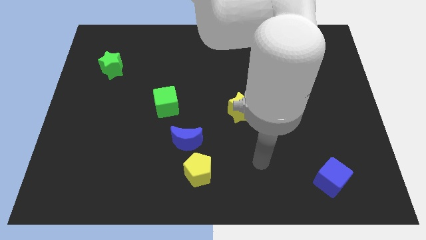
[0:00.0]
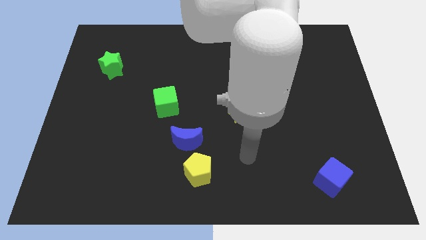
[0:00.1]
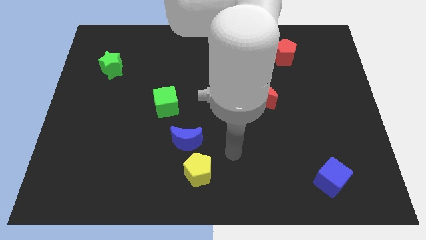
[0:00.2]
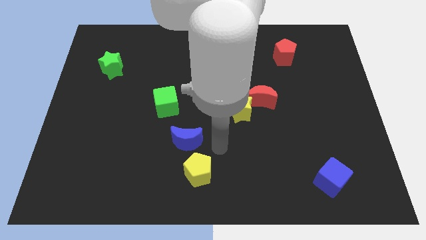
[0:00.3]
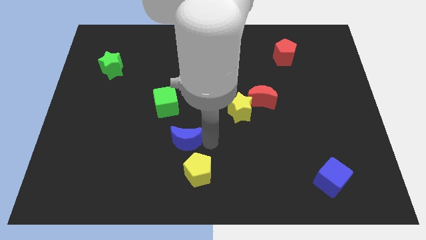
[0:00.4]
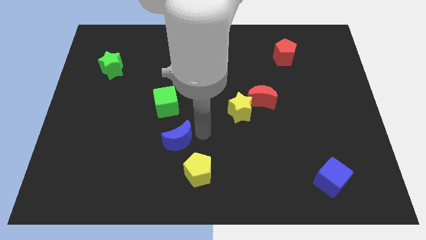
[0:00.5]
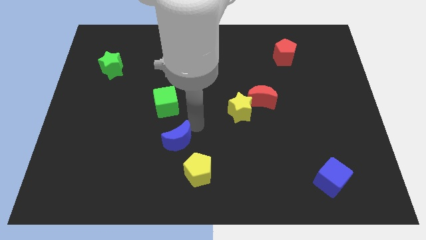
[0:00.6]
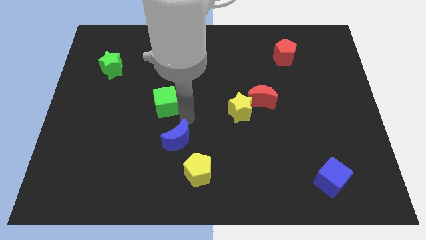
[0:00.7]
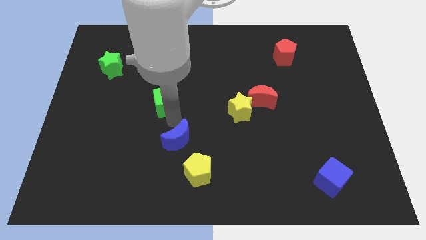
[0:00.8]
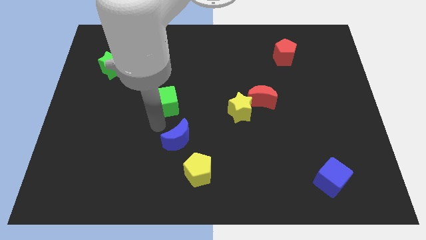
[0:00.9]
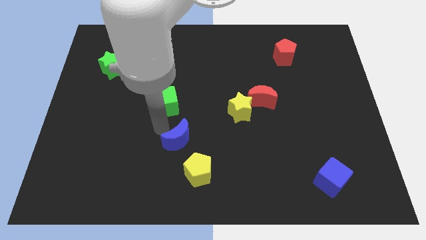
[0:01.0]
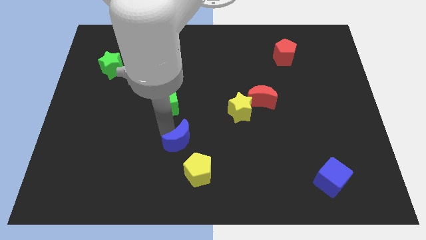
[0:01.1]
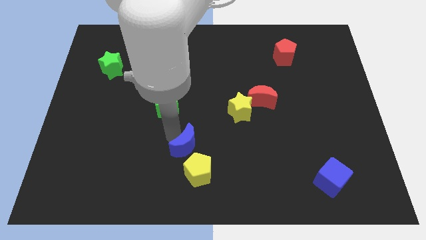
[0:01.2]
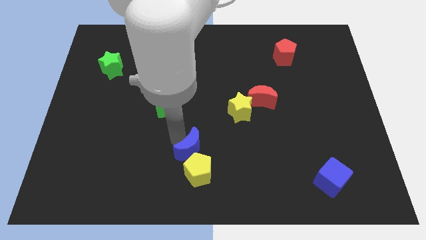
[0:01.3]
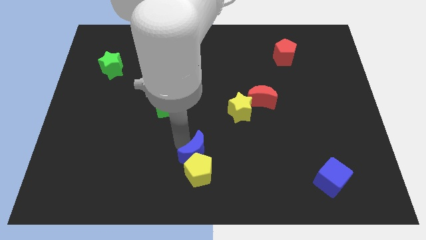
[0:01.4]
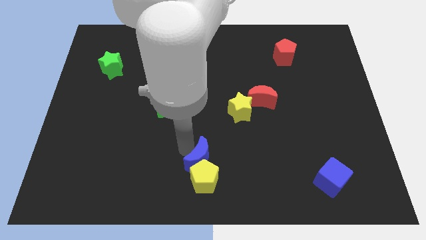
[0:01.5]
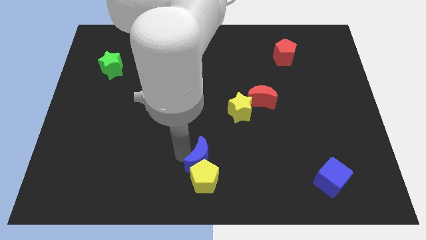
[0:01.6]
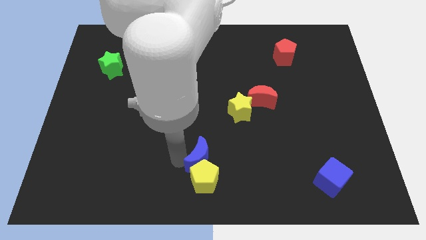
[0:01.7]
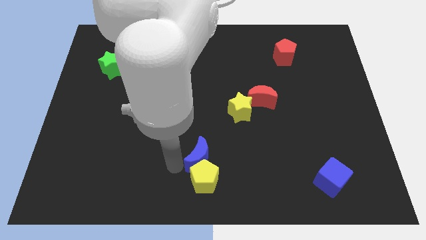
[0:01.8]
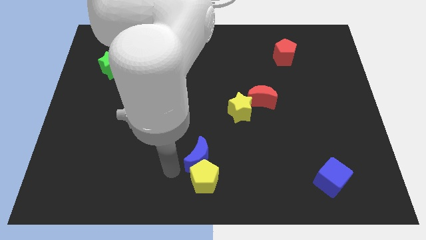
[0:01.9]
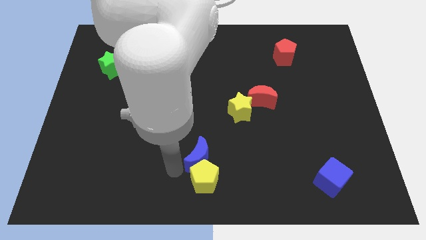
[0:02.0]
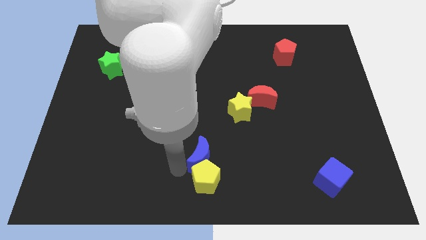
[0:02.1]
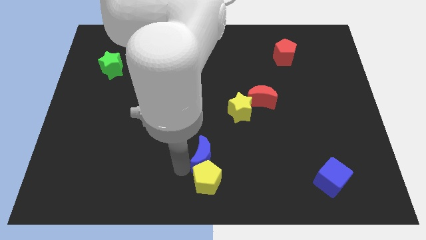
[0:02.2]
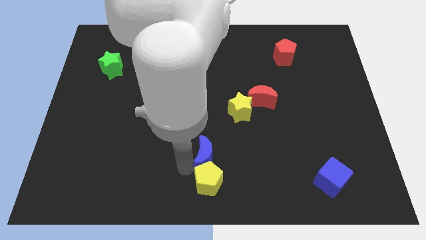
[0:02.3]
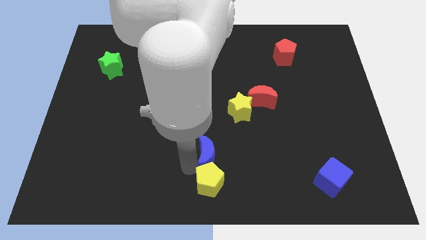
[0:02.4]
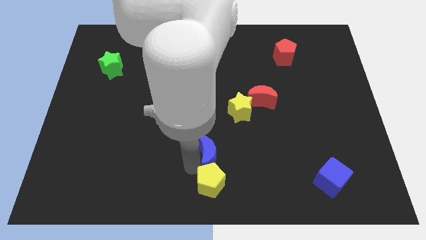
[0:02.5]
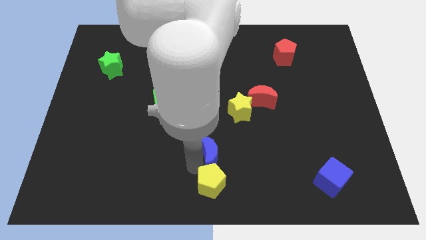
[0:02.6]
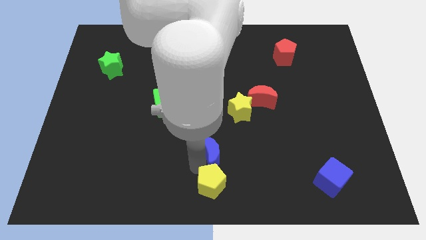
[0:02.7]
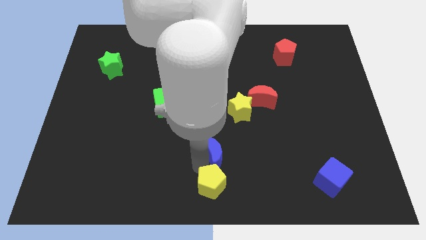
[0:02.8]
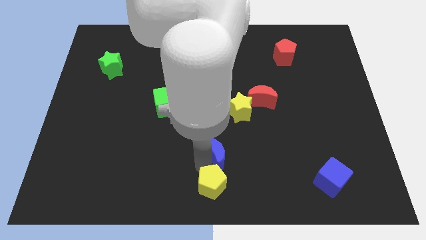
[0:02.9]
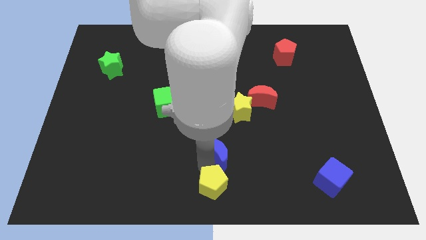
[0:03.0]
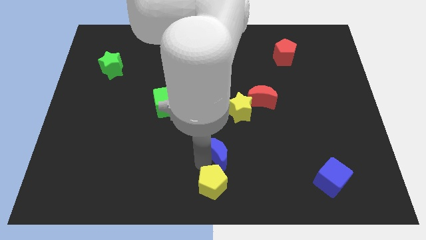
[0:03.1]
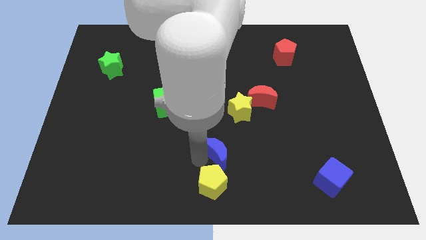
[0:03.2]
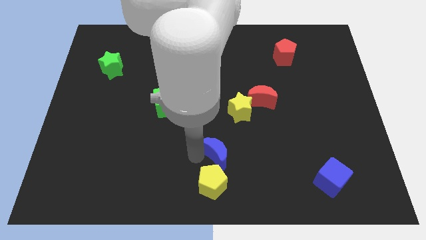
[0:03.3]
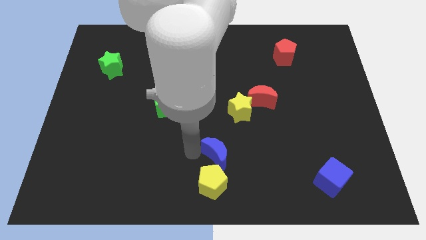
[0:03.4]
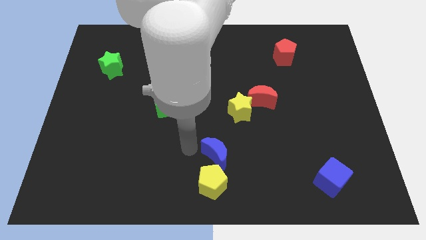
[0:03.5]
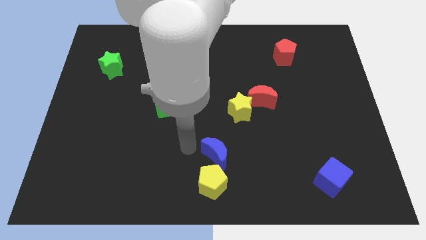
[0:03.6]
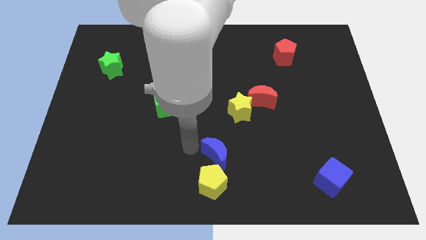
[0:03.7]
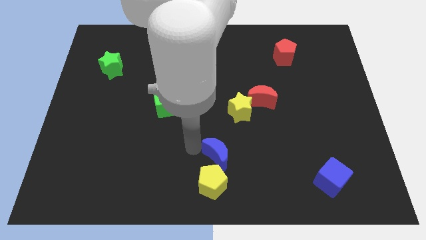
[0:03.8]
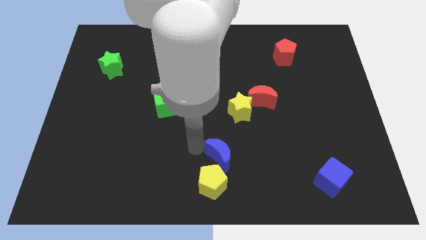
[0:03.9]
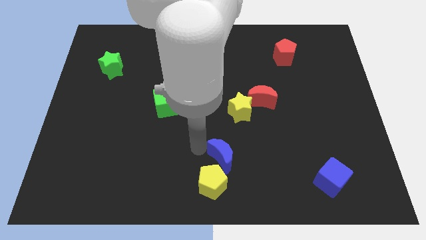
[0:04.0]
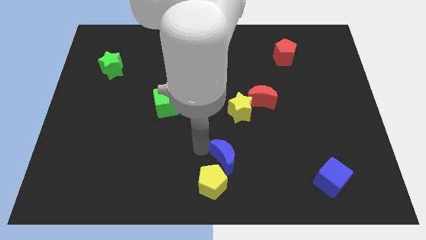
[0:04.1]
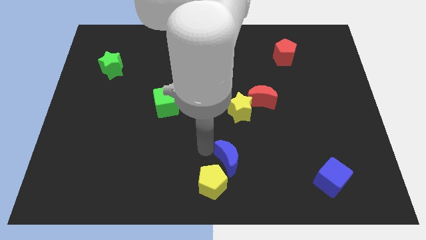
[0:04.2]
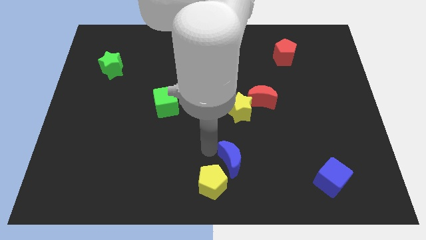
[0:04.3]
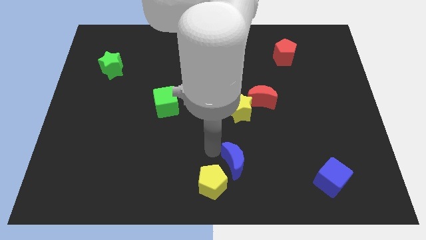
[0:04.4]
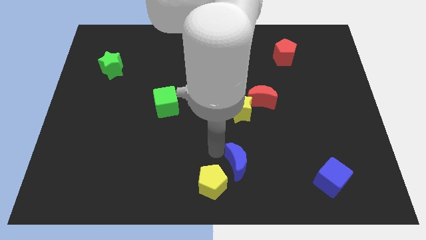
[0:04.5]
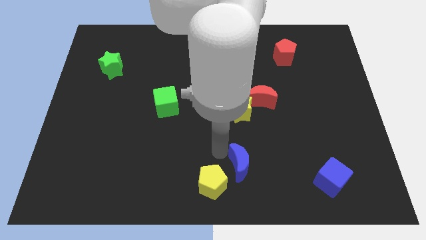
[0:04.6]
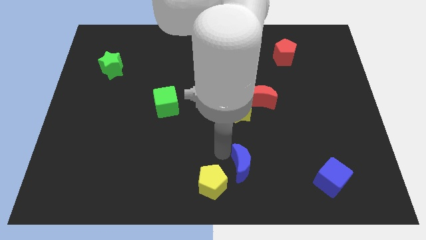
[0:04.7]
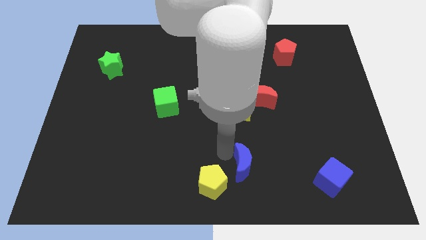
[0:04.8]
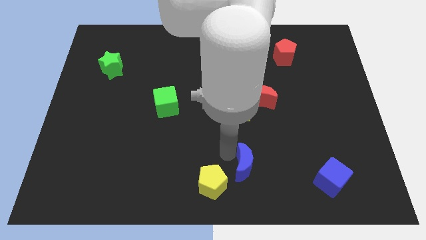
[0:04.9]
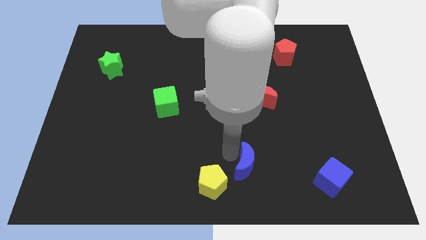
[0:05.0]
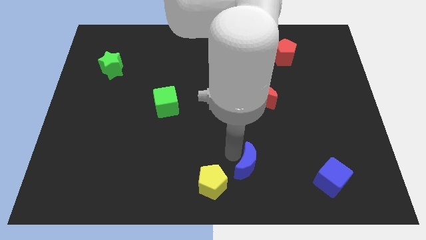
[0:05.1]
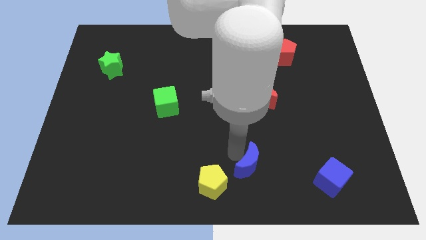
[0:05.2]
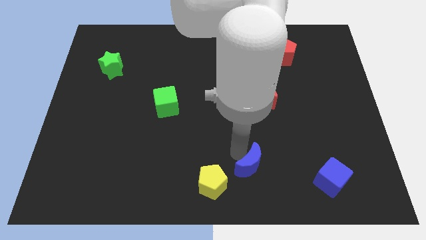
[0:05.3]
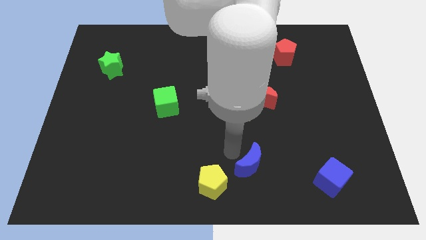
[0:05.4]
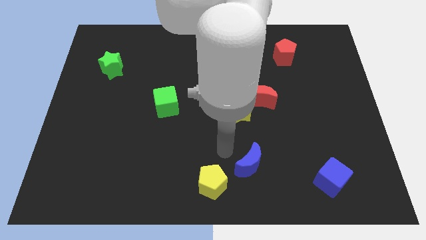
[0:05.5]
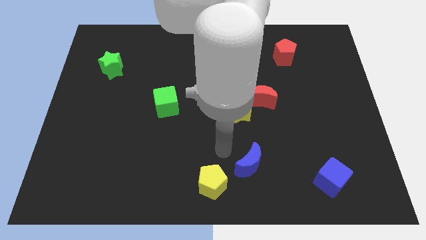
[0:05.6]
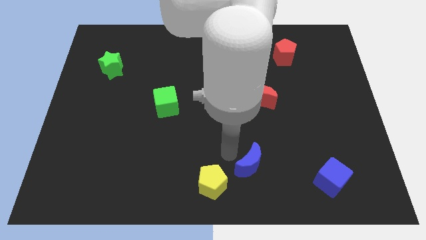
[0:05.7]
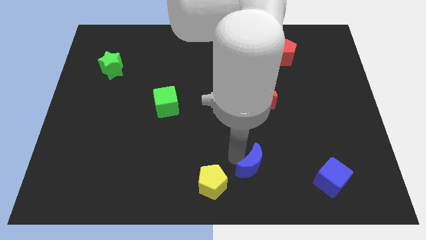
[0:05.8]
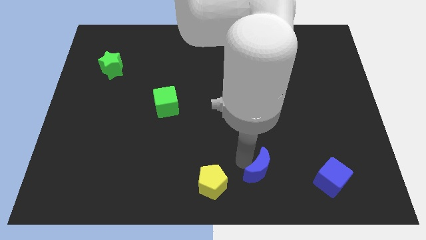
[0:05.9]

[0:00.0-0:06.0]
slide the blue moon left of the blue cube

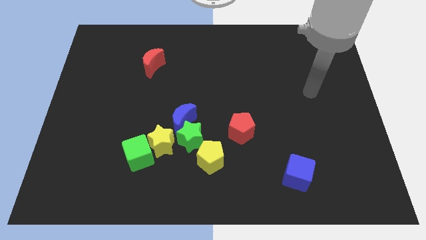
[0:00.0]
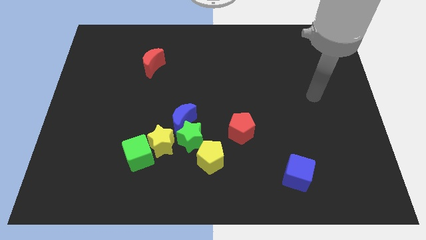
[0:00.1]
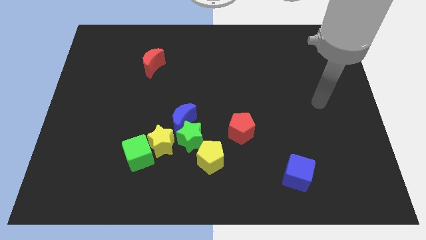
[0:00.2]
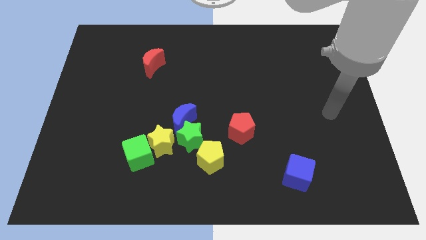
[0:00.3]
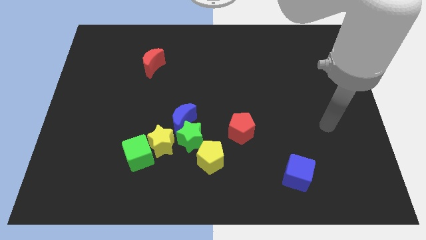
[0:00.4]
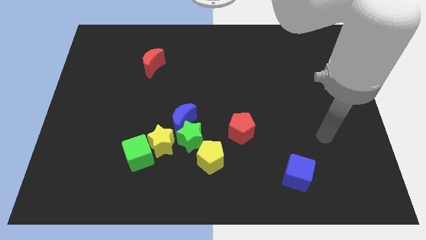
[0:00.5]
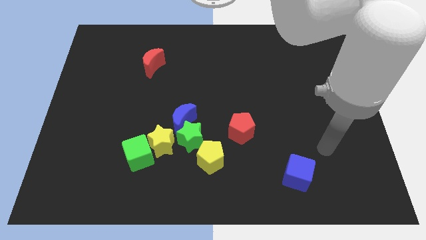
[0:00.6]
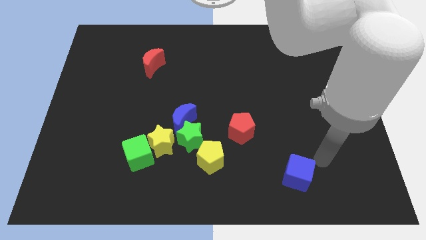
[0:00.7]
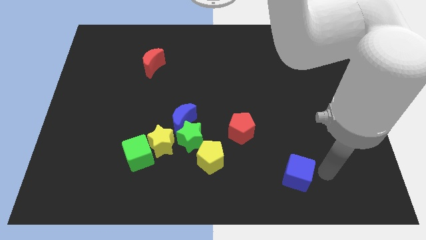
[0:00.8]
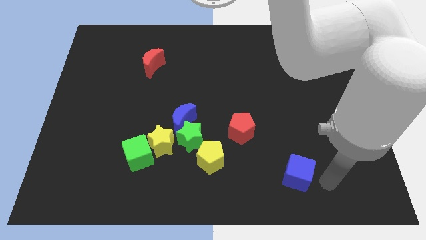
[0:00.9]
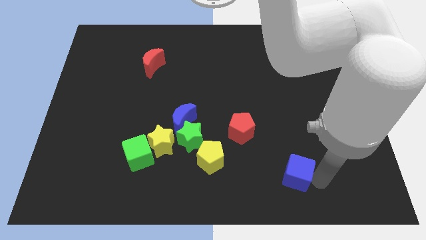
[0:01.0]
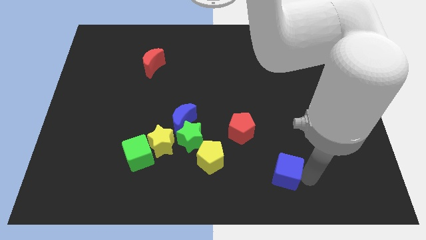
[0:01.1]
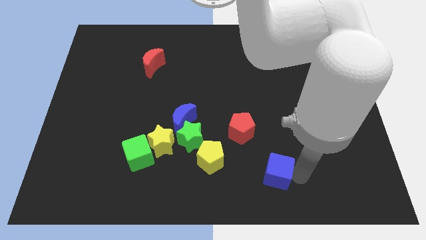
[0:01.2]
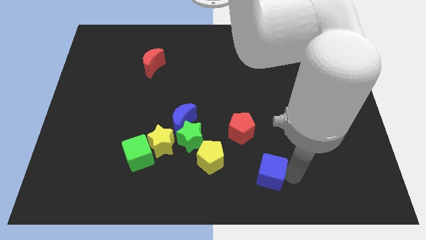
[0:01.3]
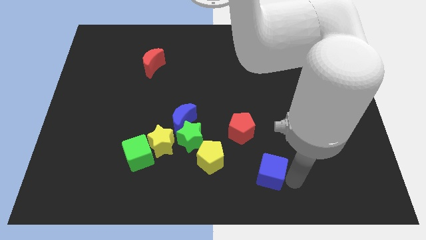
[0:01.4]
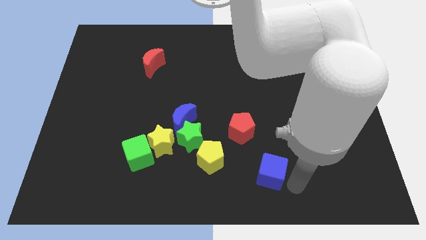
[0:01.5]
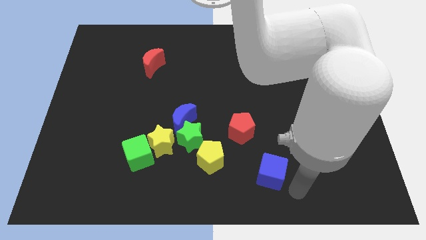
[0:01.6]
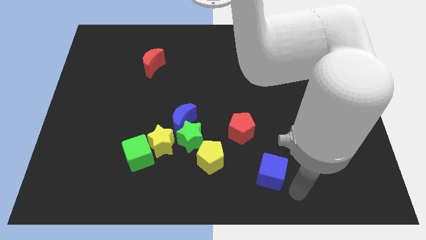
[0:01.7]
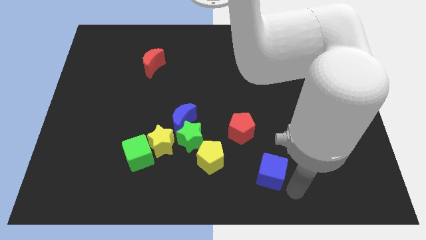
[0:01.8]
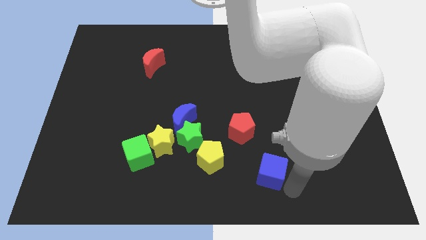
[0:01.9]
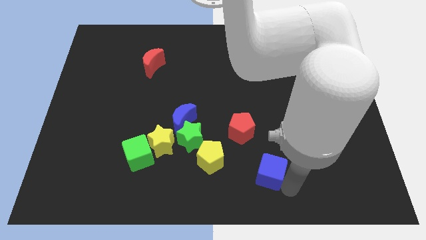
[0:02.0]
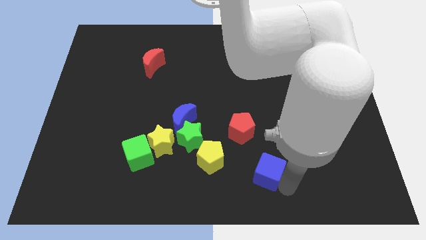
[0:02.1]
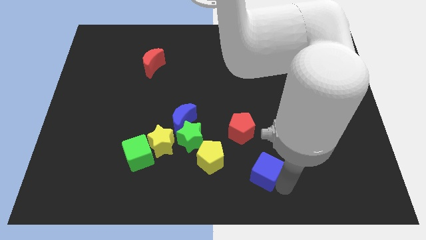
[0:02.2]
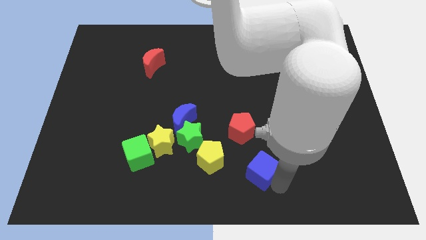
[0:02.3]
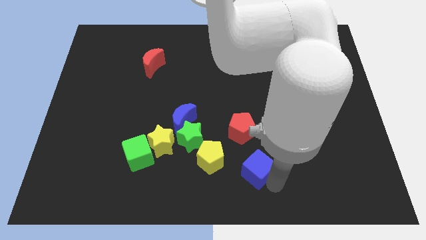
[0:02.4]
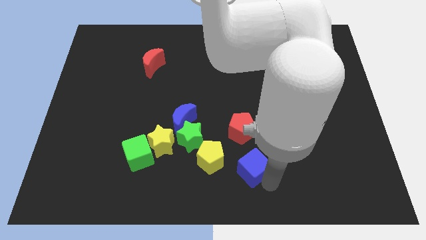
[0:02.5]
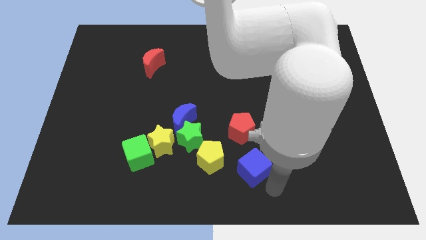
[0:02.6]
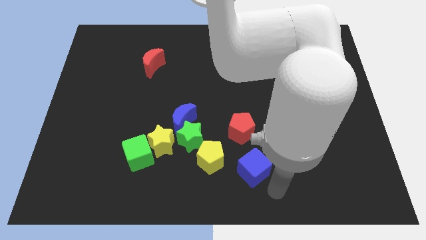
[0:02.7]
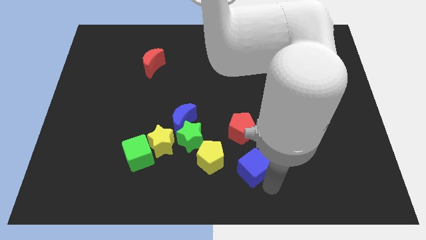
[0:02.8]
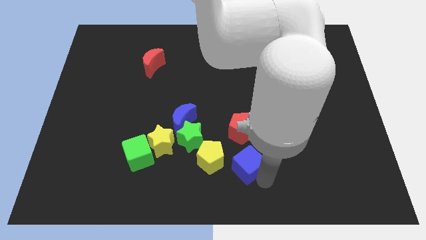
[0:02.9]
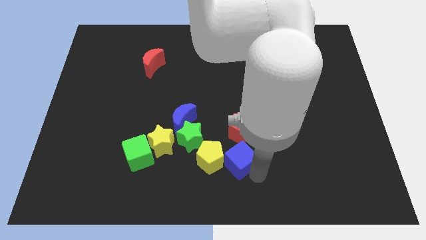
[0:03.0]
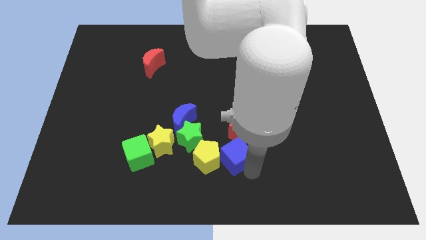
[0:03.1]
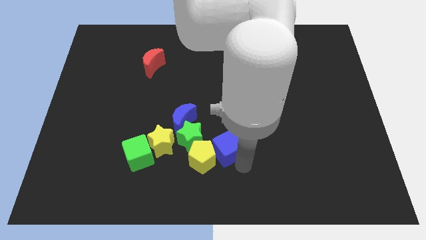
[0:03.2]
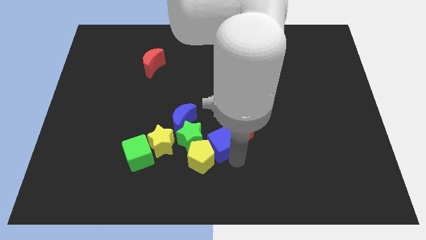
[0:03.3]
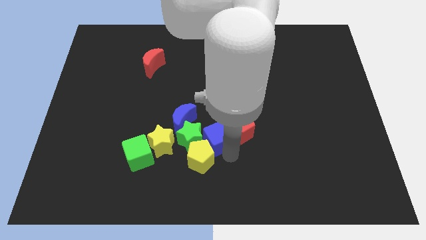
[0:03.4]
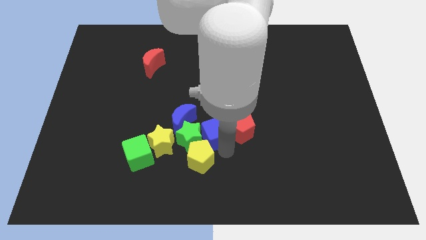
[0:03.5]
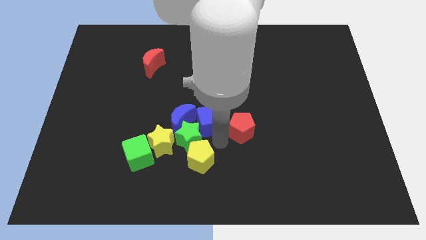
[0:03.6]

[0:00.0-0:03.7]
push the blue cube to the top side of the green star
